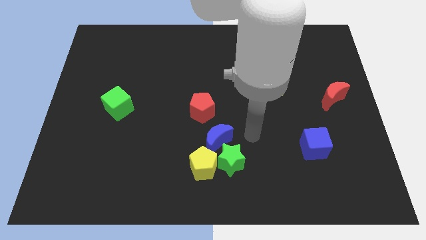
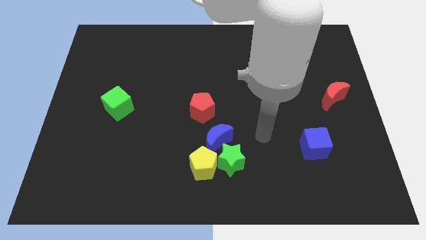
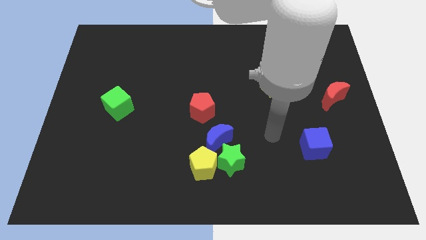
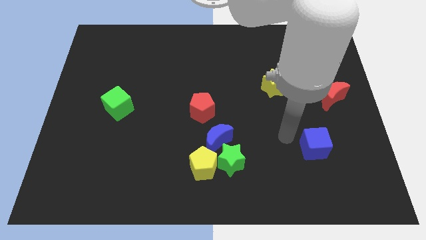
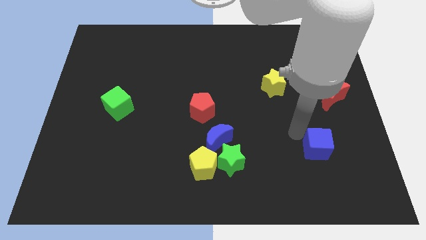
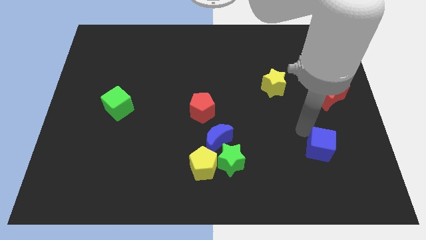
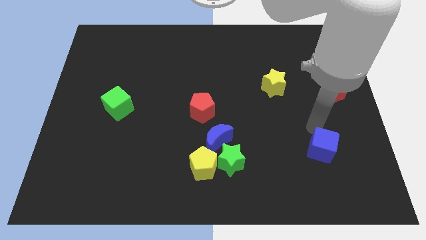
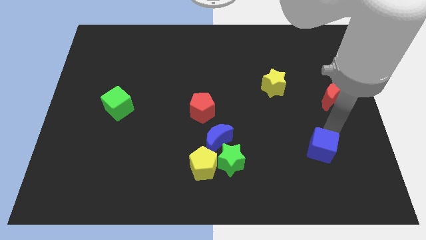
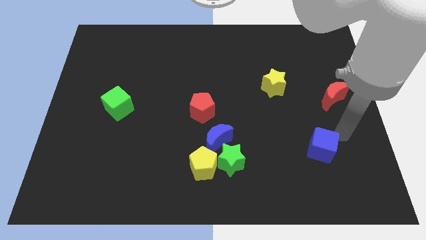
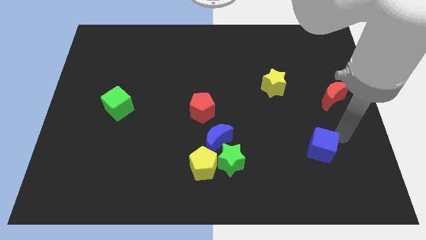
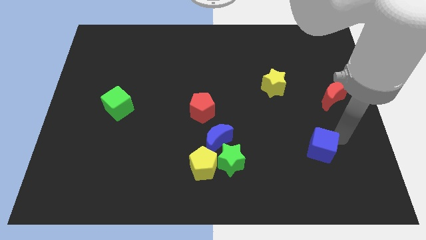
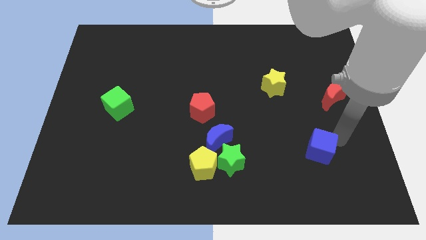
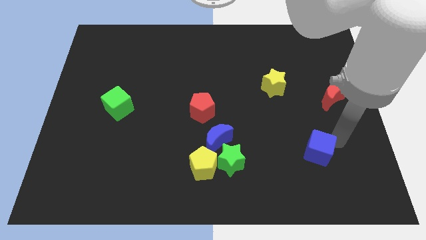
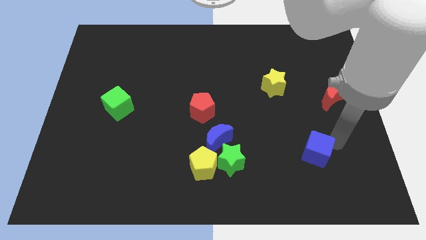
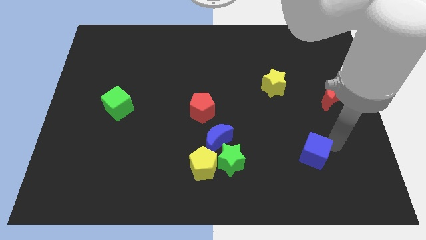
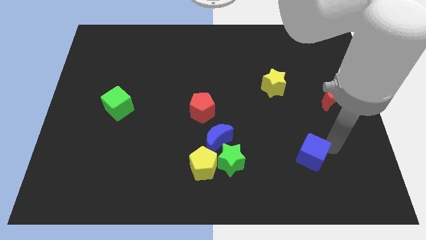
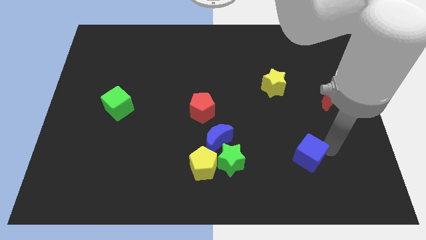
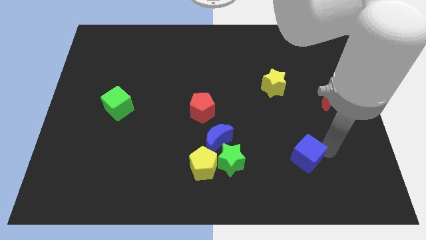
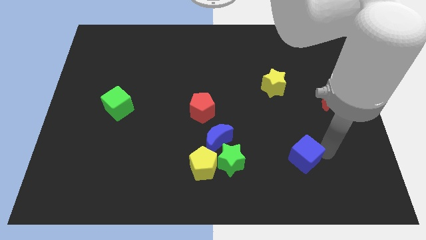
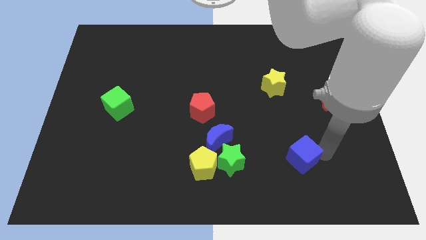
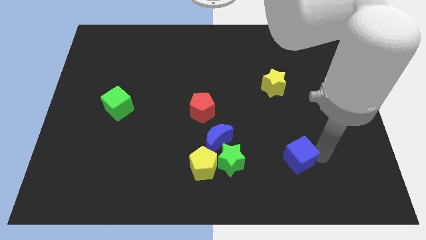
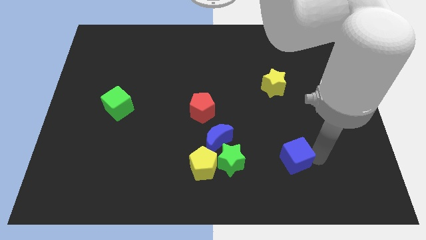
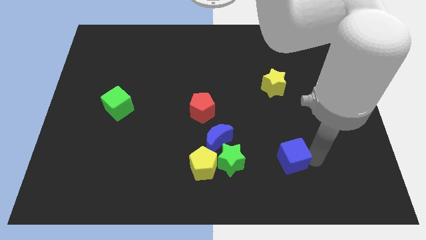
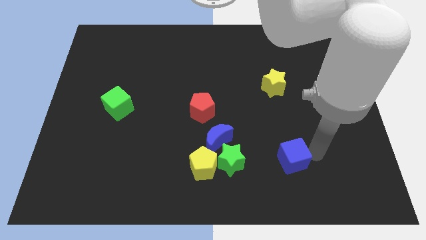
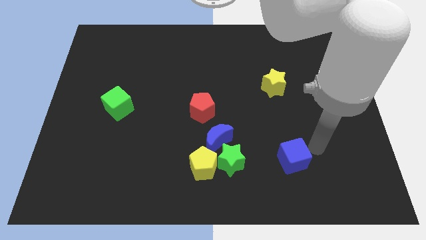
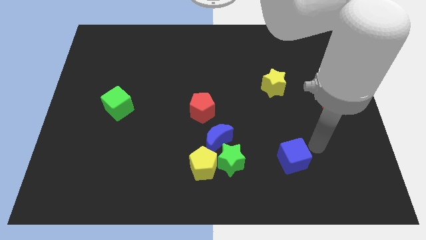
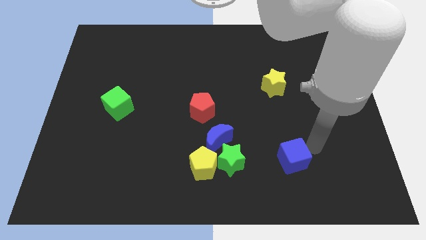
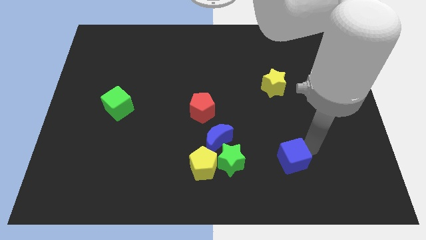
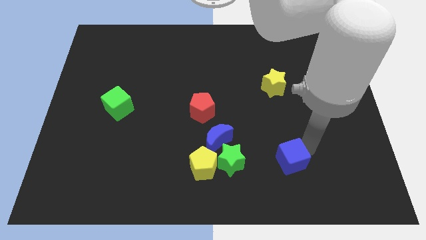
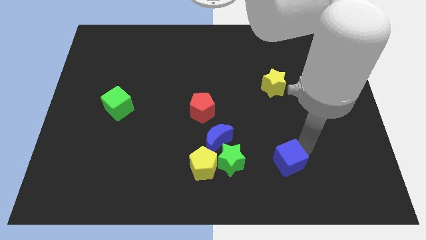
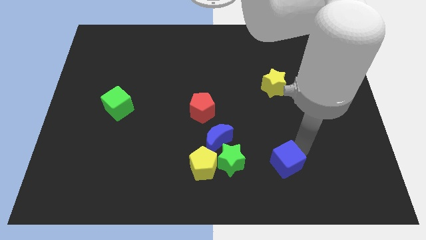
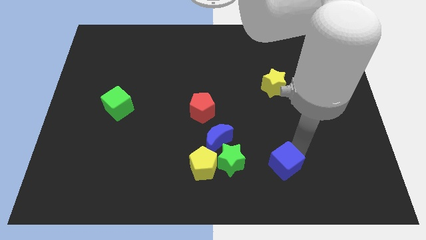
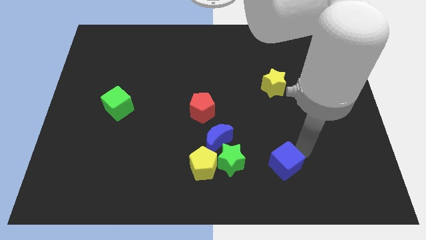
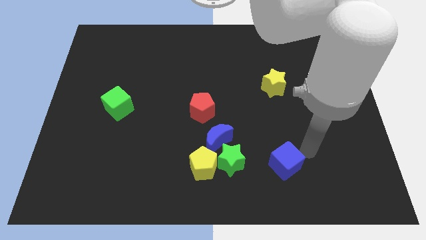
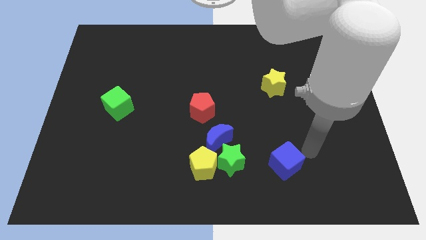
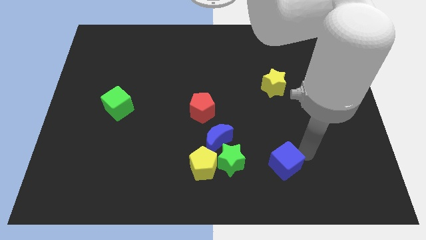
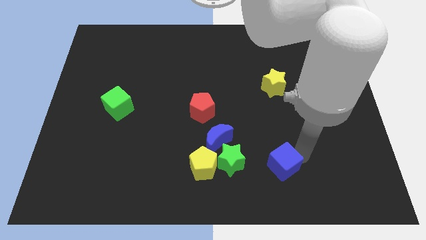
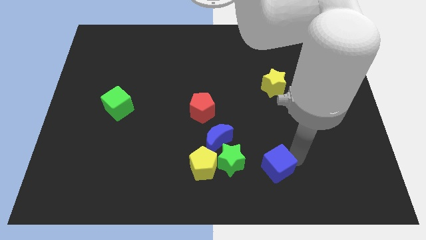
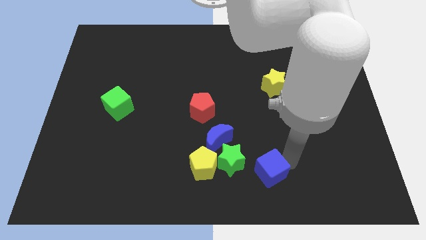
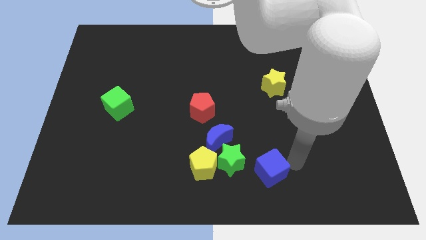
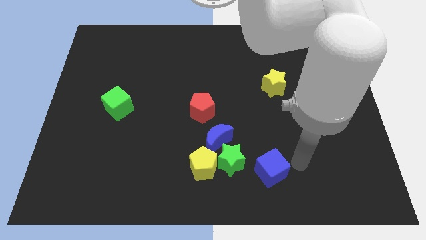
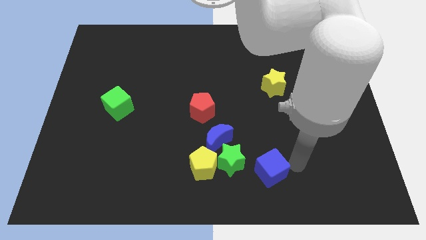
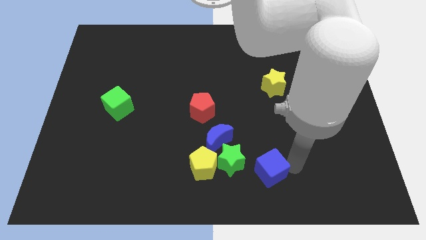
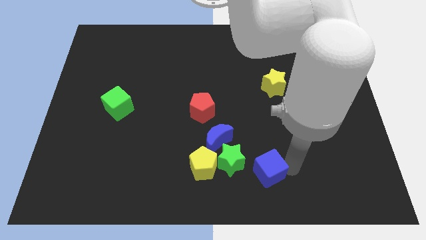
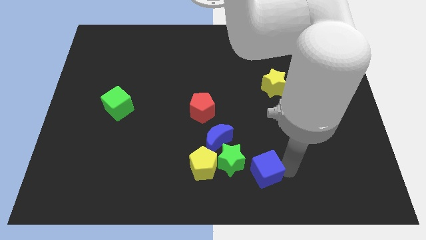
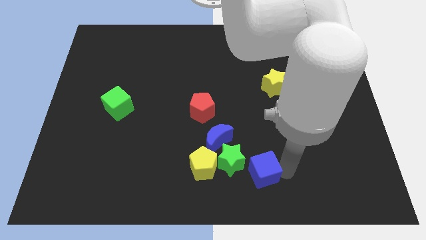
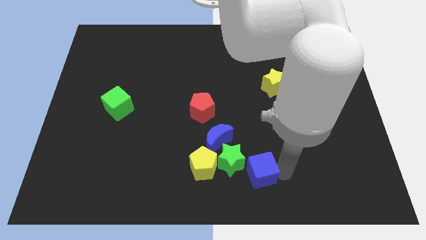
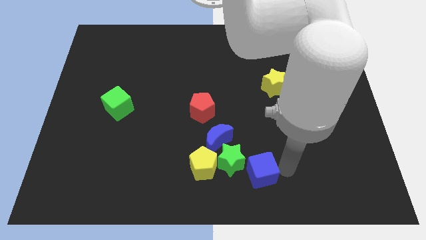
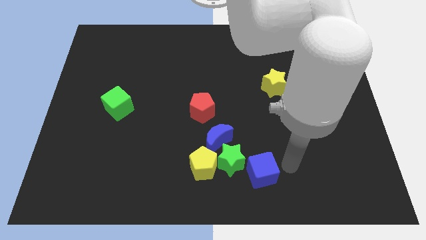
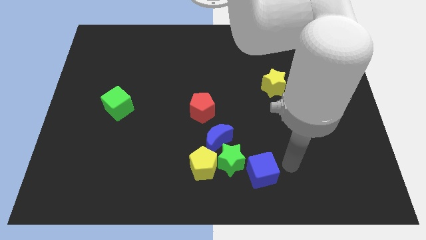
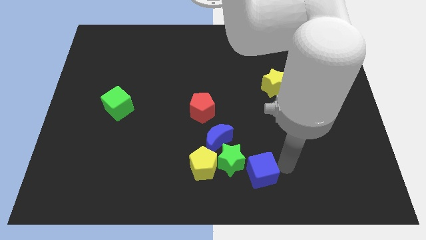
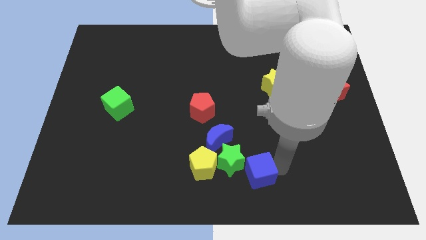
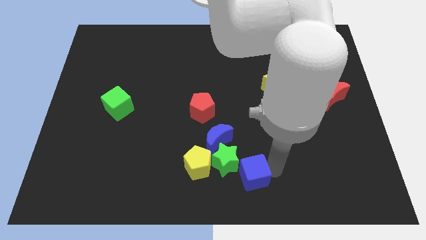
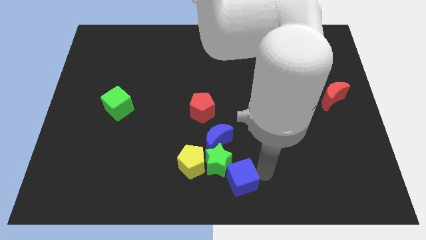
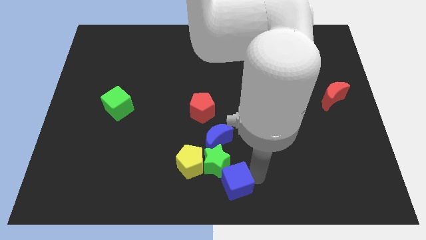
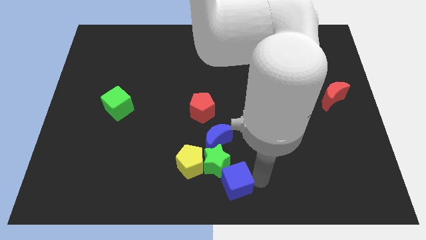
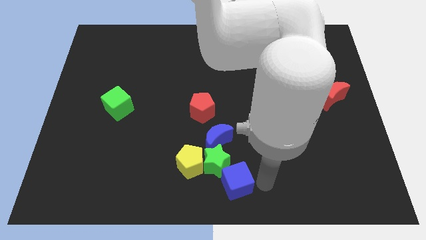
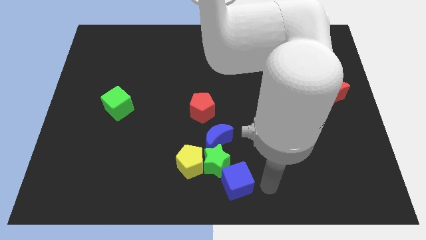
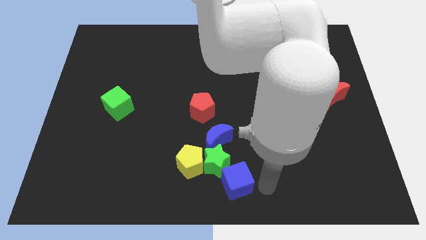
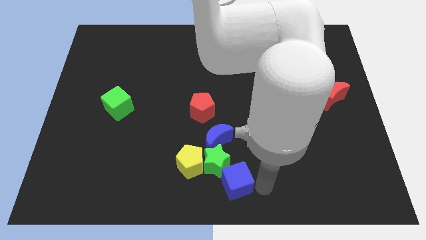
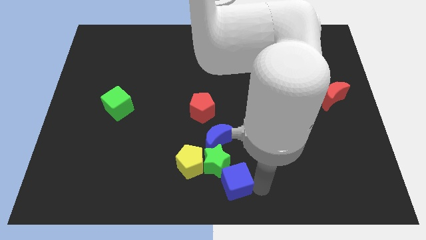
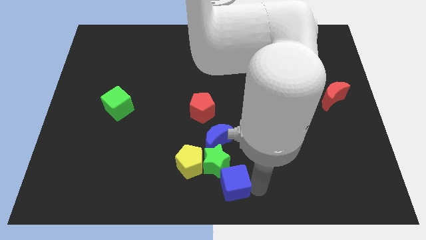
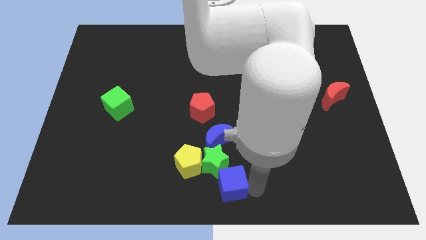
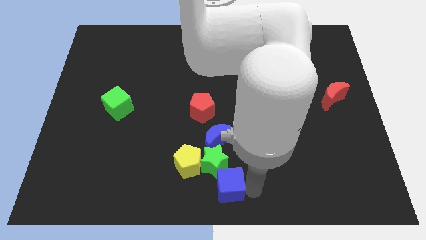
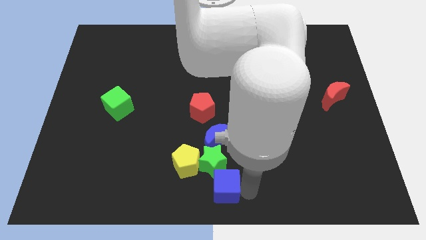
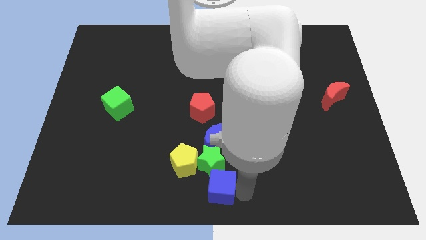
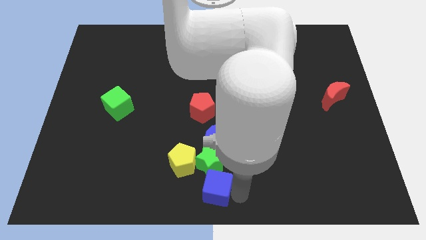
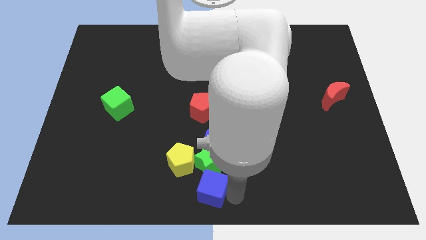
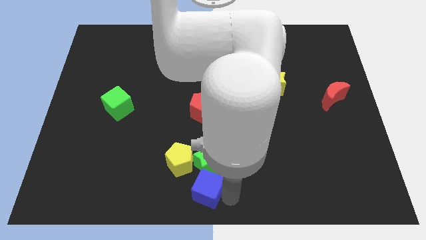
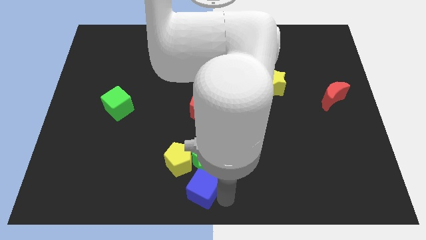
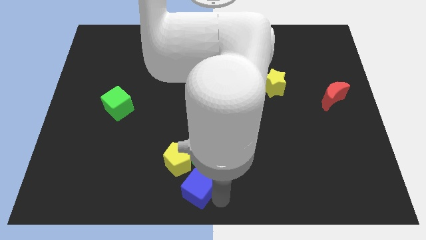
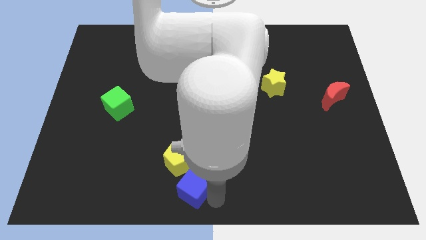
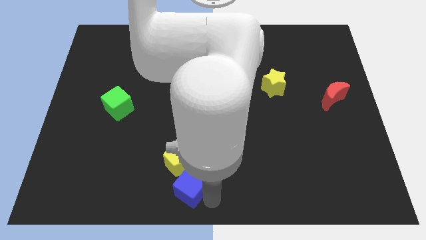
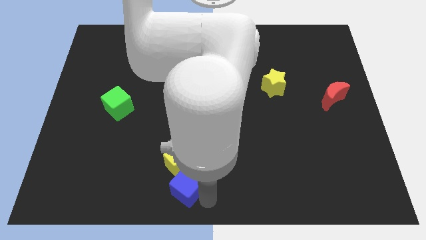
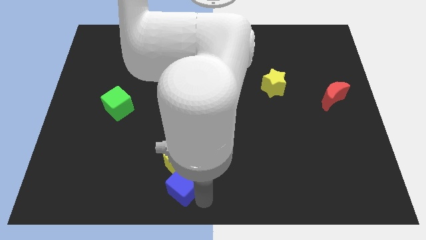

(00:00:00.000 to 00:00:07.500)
push the blue cube close to the yellow pentagon
